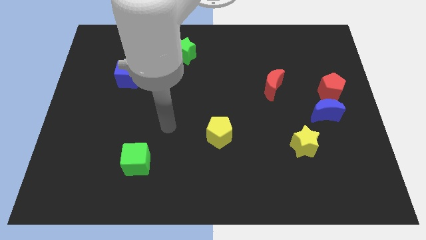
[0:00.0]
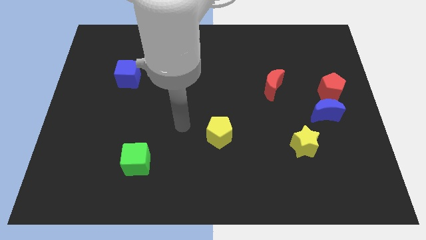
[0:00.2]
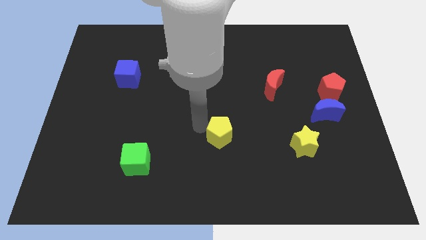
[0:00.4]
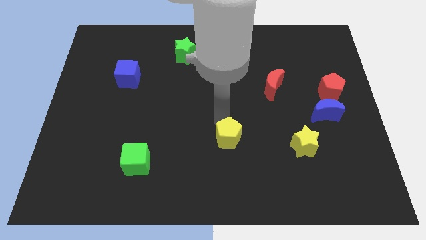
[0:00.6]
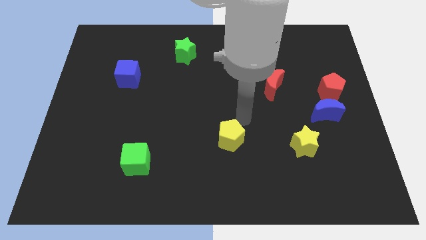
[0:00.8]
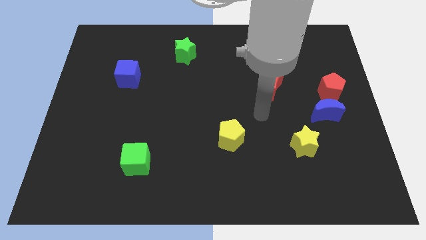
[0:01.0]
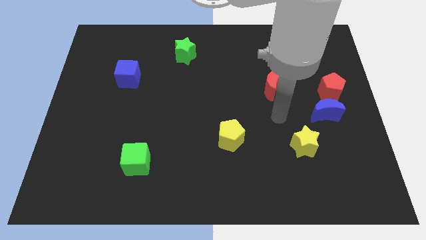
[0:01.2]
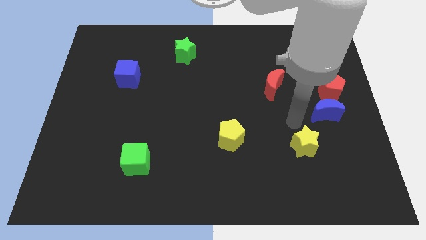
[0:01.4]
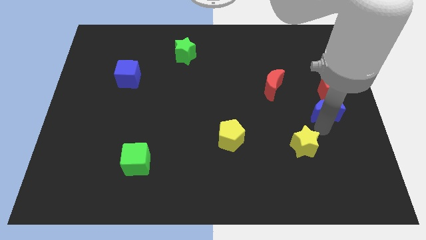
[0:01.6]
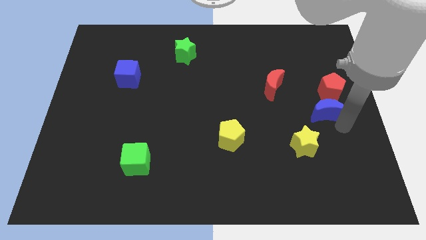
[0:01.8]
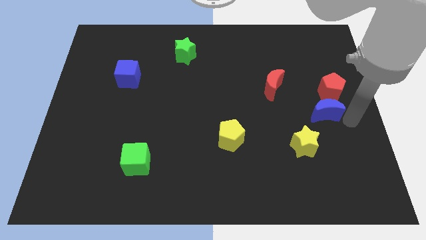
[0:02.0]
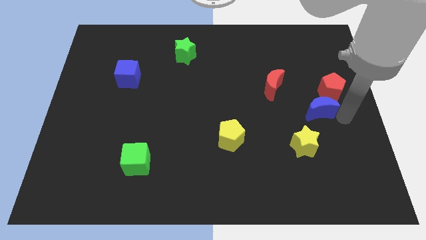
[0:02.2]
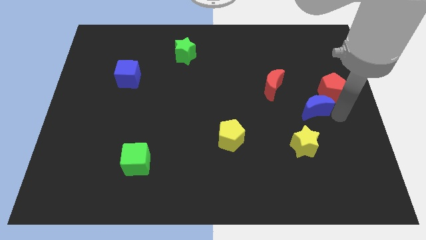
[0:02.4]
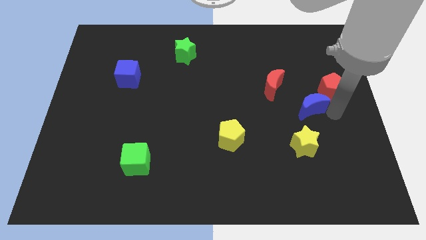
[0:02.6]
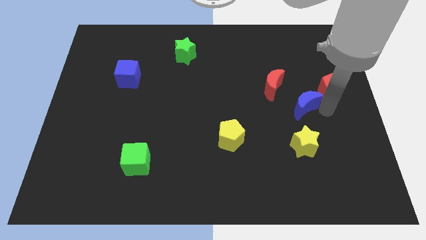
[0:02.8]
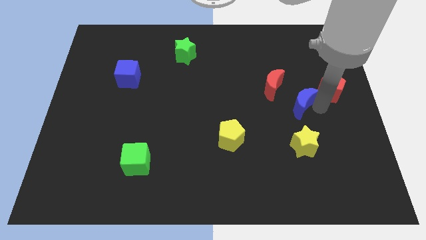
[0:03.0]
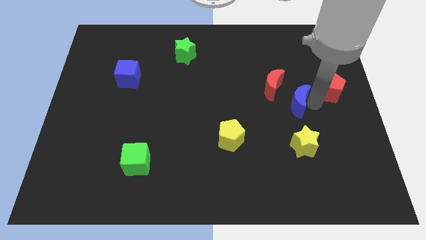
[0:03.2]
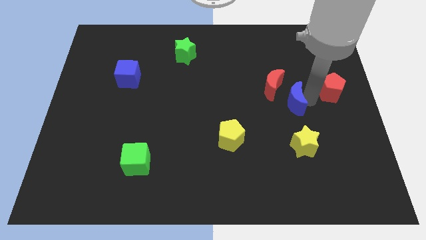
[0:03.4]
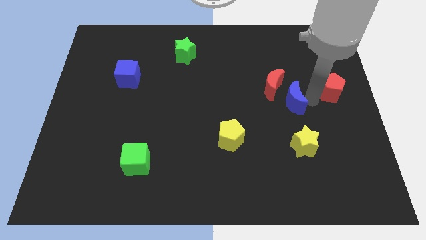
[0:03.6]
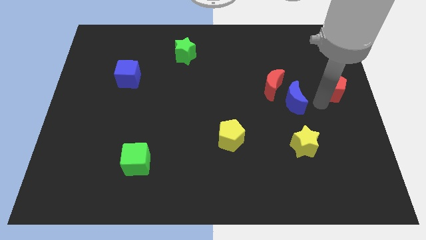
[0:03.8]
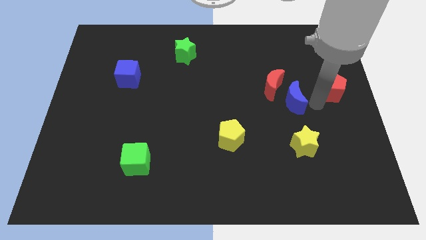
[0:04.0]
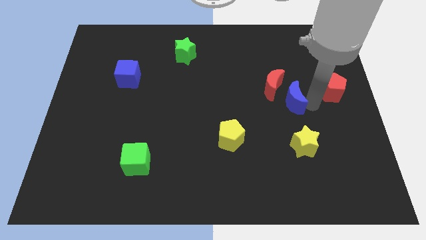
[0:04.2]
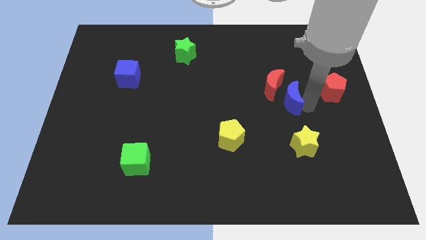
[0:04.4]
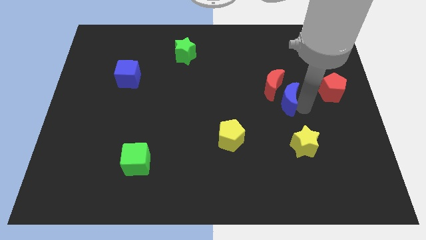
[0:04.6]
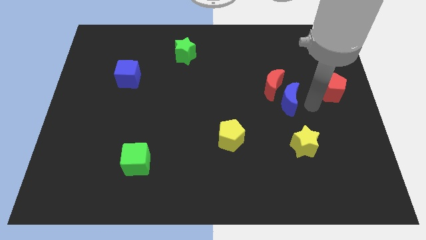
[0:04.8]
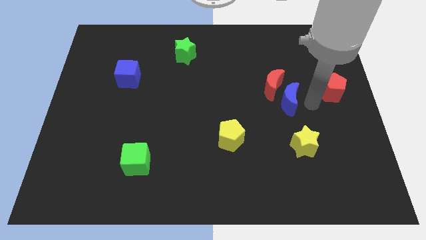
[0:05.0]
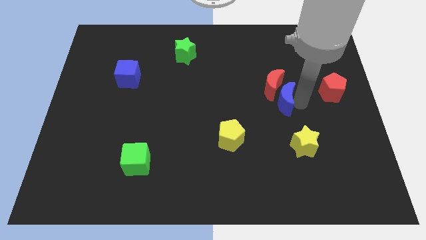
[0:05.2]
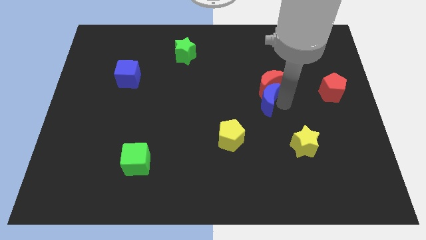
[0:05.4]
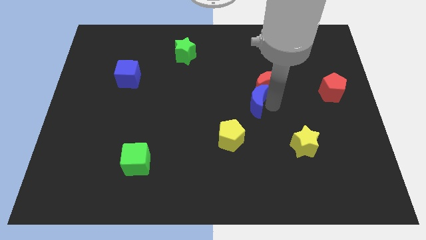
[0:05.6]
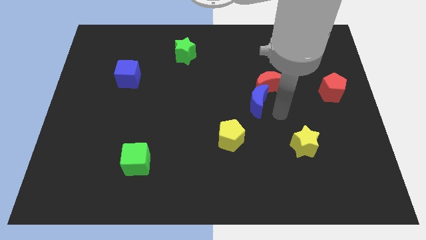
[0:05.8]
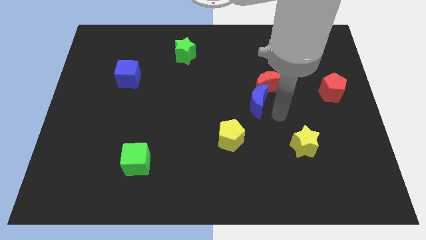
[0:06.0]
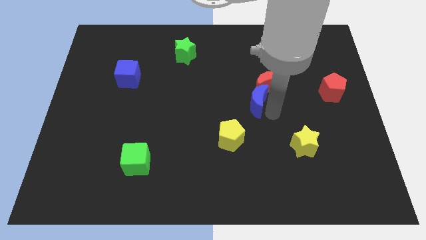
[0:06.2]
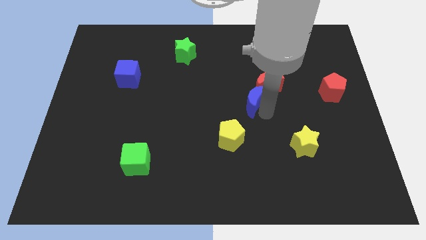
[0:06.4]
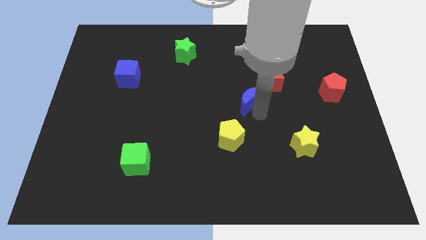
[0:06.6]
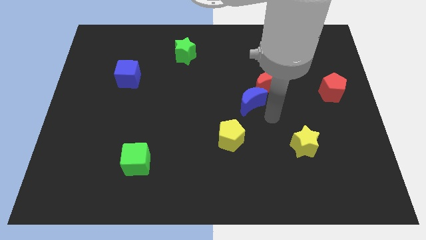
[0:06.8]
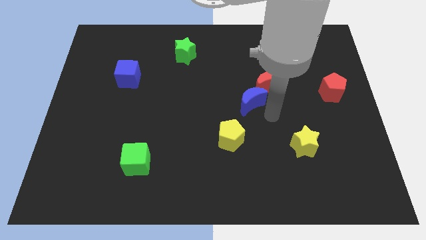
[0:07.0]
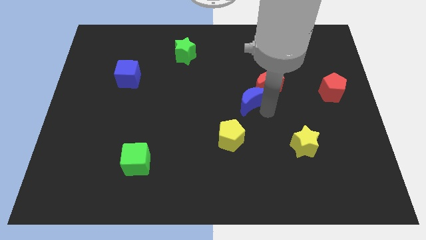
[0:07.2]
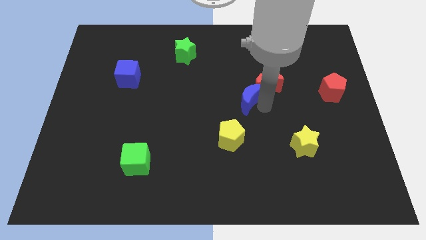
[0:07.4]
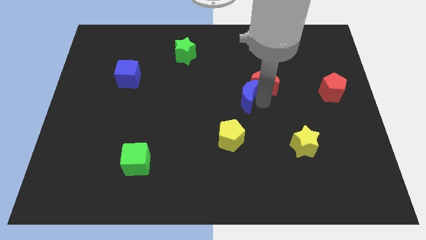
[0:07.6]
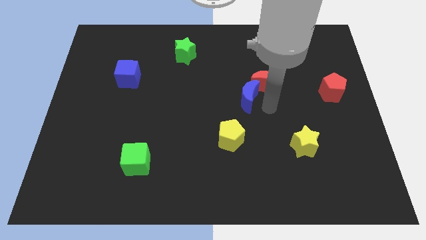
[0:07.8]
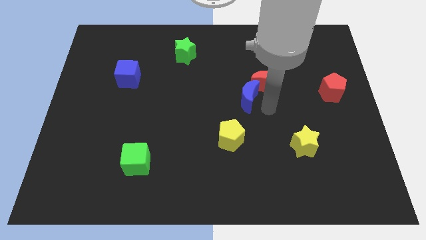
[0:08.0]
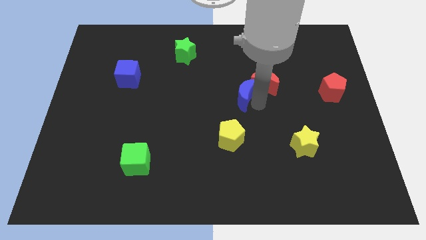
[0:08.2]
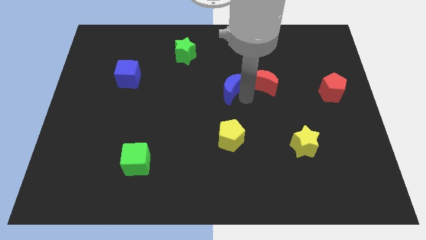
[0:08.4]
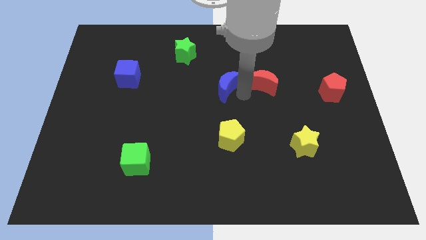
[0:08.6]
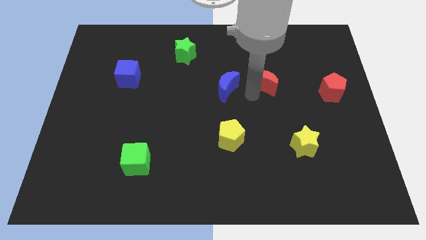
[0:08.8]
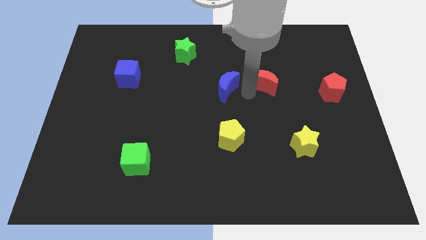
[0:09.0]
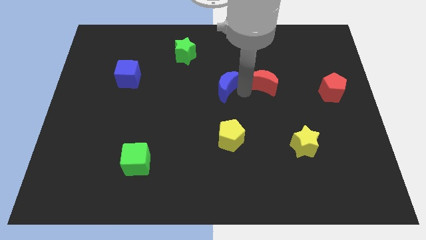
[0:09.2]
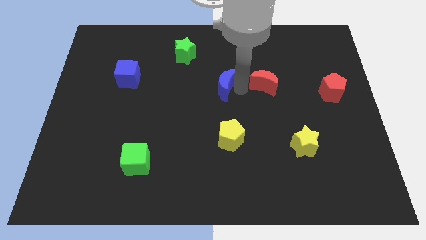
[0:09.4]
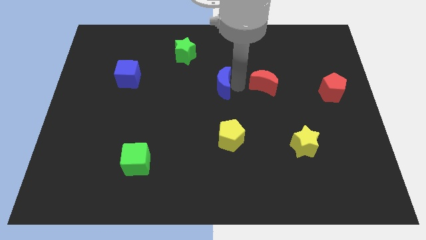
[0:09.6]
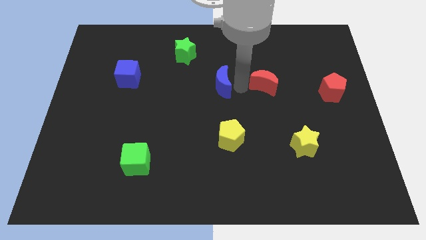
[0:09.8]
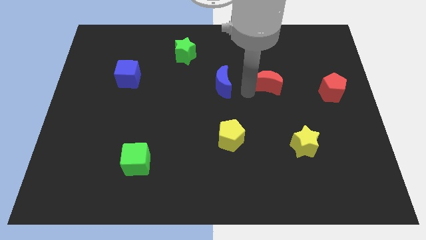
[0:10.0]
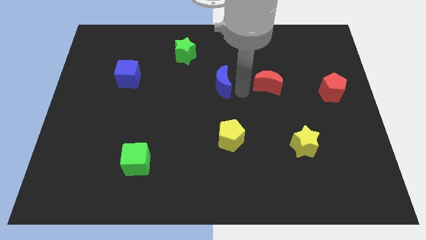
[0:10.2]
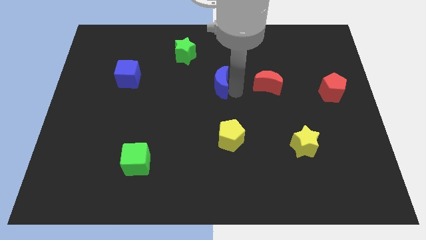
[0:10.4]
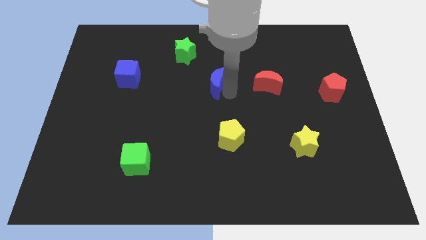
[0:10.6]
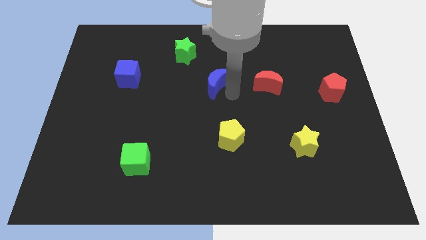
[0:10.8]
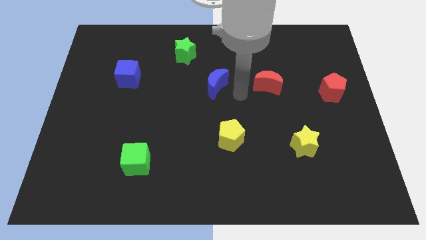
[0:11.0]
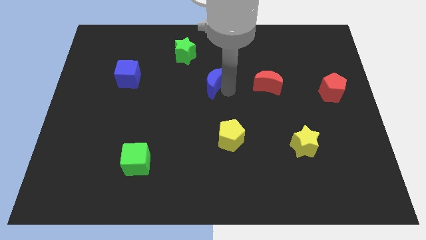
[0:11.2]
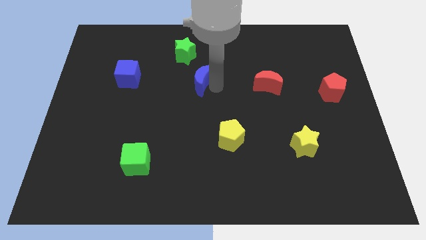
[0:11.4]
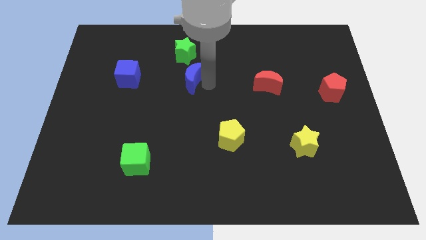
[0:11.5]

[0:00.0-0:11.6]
put the blue moon to the right of the blue cube
